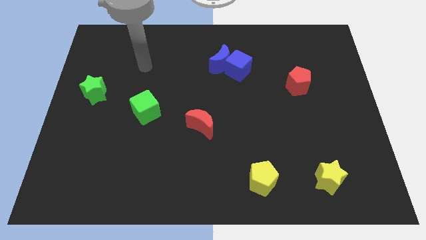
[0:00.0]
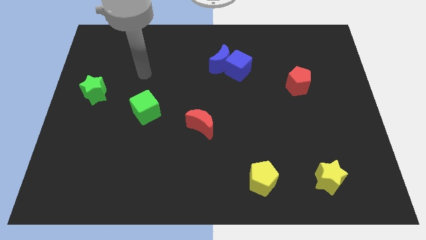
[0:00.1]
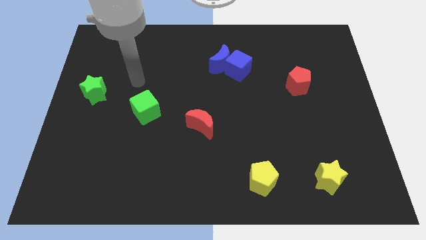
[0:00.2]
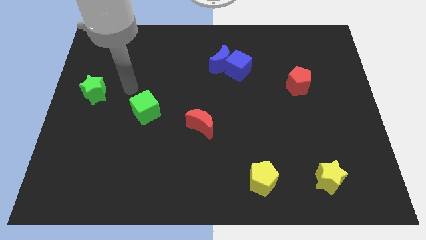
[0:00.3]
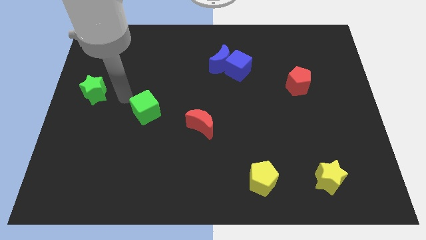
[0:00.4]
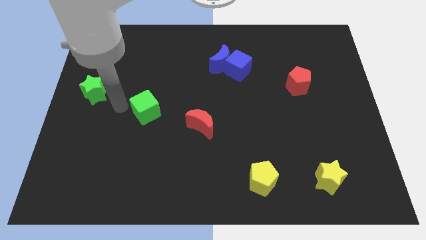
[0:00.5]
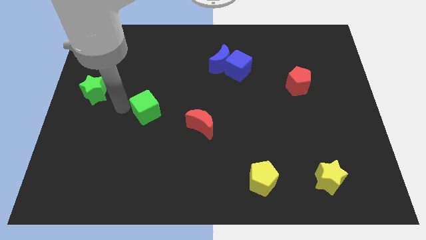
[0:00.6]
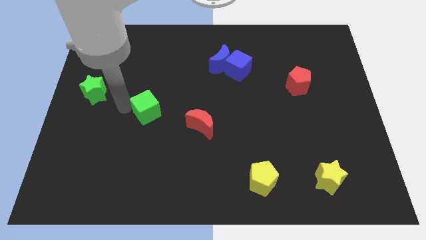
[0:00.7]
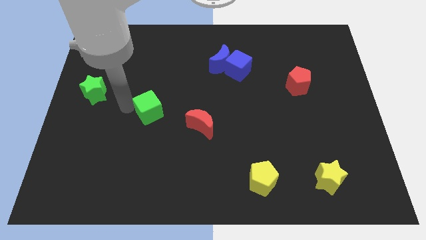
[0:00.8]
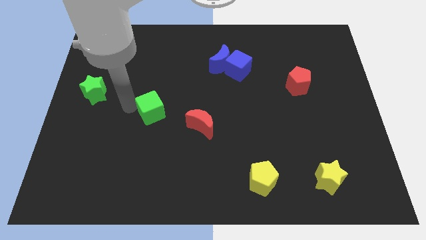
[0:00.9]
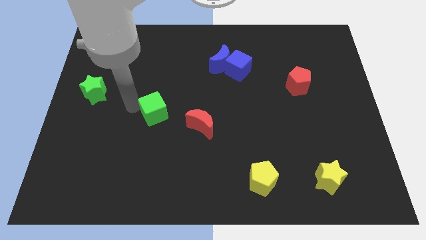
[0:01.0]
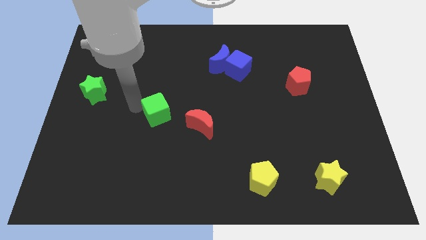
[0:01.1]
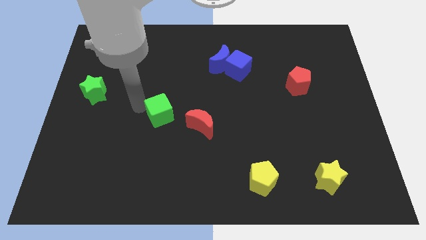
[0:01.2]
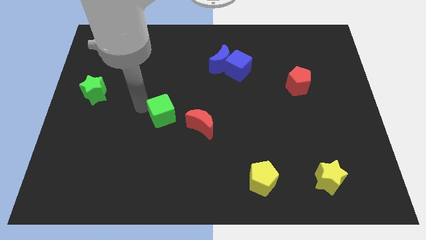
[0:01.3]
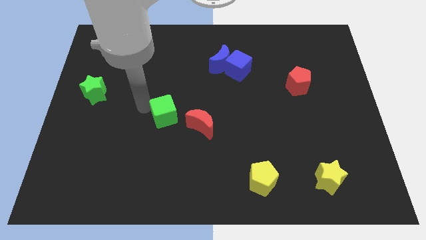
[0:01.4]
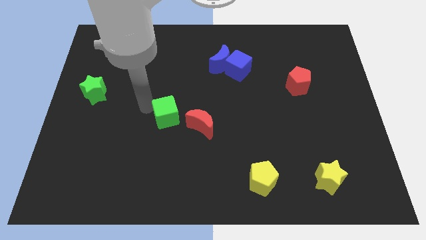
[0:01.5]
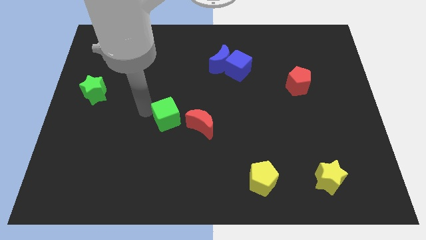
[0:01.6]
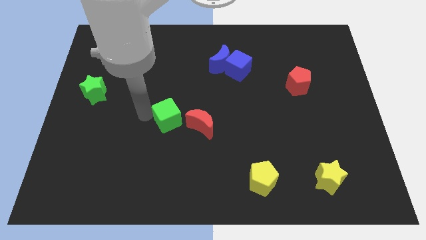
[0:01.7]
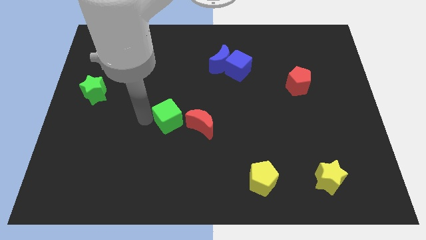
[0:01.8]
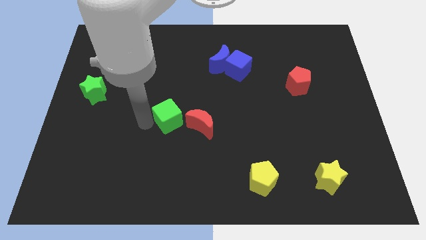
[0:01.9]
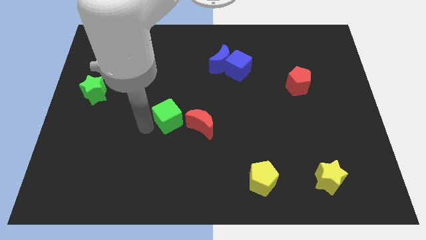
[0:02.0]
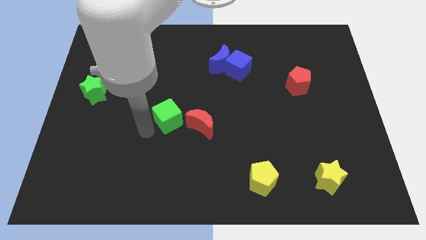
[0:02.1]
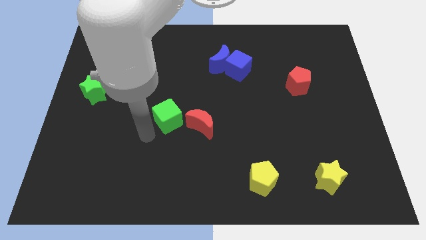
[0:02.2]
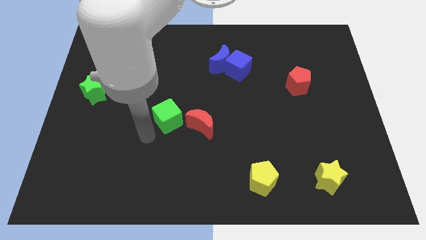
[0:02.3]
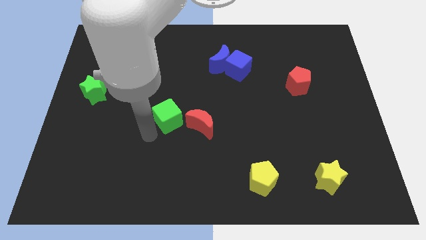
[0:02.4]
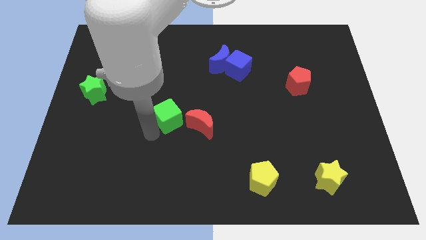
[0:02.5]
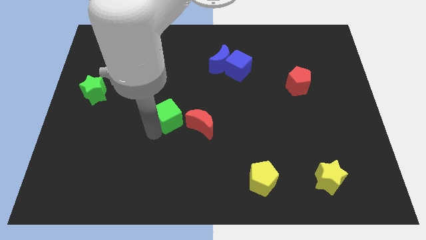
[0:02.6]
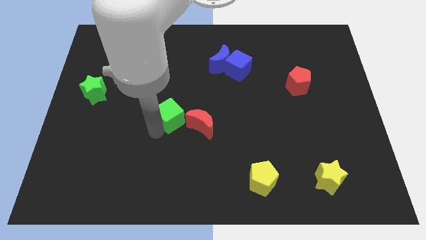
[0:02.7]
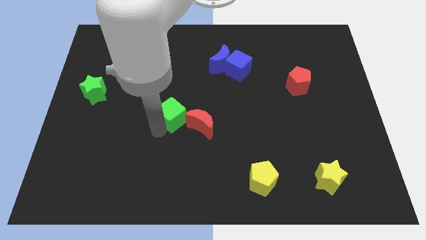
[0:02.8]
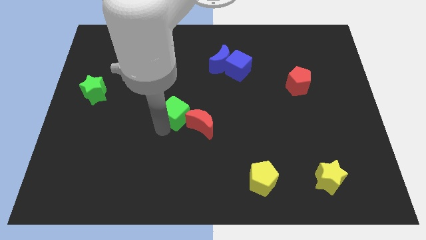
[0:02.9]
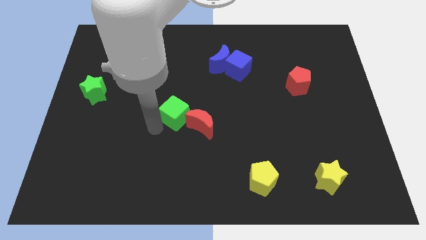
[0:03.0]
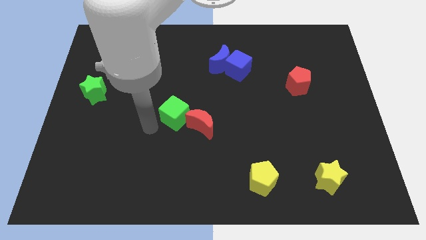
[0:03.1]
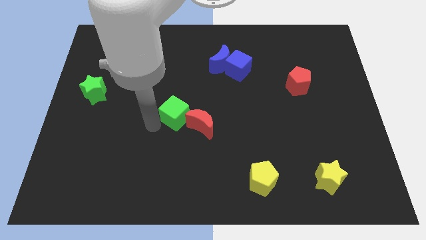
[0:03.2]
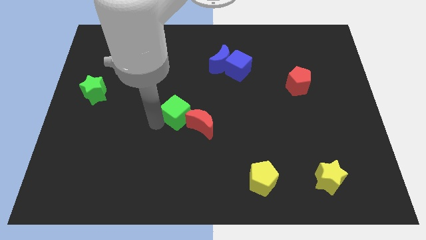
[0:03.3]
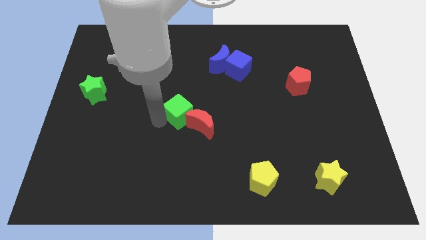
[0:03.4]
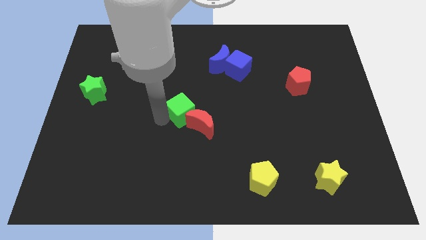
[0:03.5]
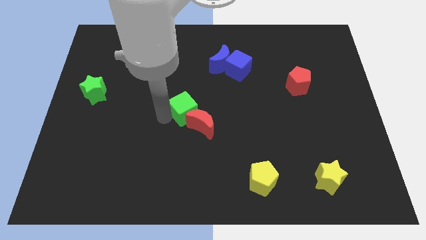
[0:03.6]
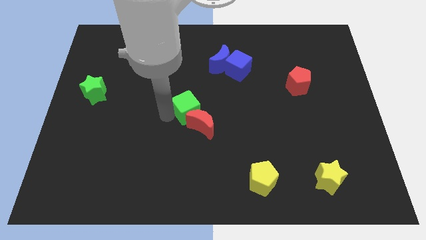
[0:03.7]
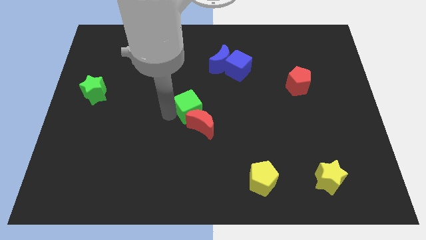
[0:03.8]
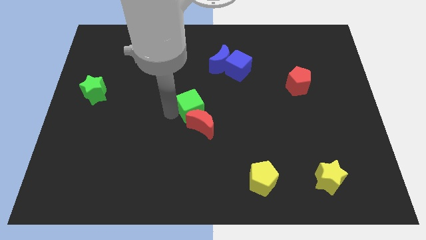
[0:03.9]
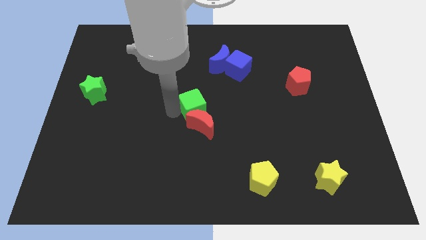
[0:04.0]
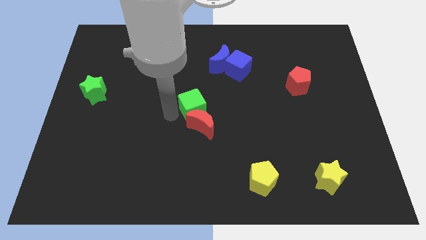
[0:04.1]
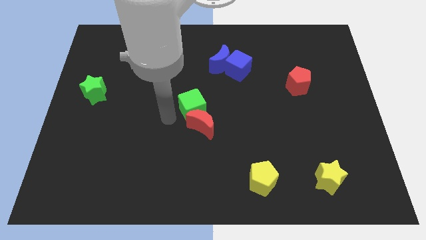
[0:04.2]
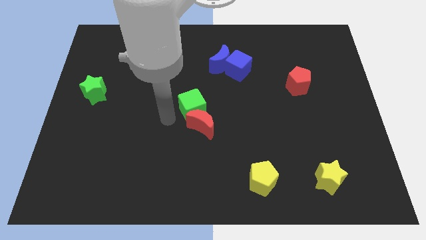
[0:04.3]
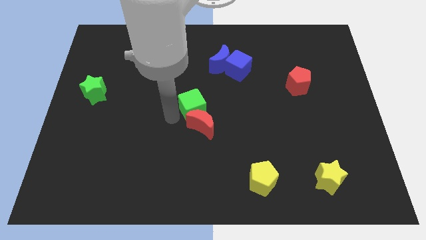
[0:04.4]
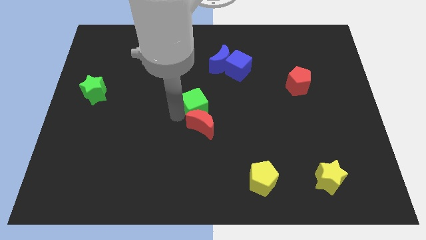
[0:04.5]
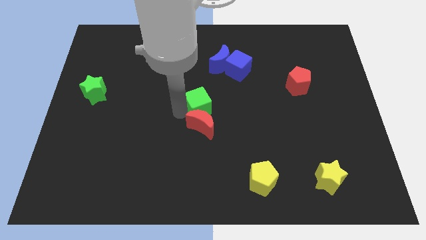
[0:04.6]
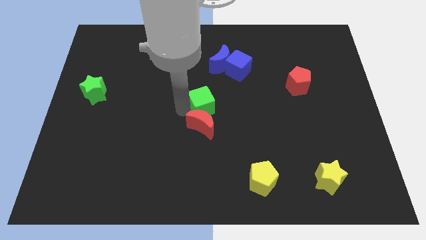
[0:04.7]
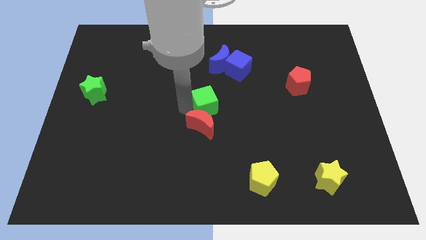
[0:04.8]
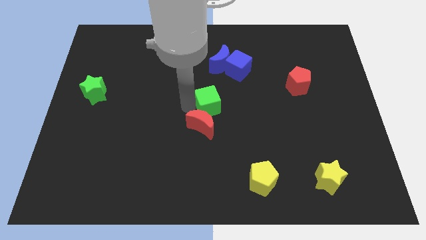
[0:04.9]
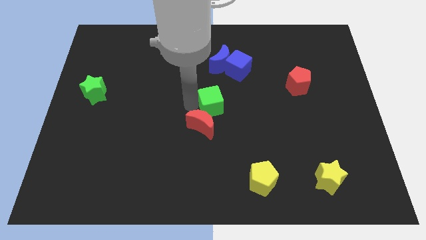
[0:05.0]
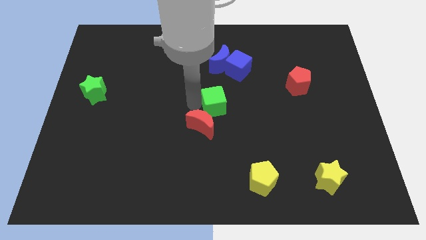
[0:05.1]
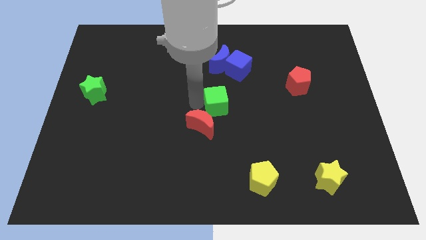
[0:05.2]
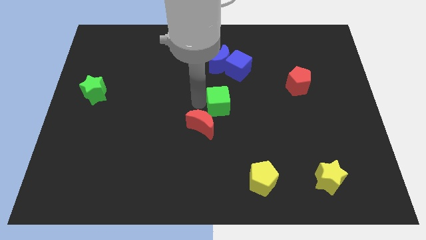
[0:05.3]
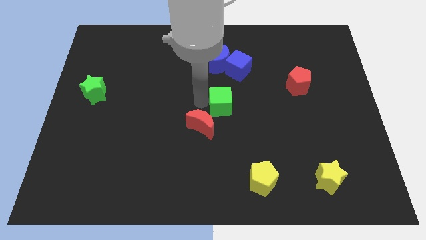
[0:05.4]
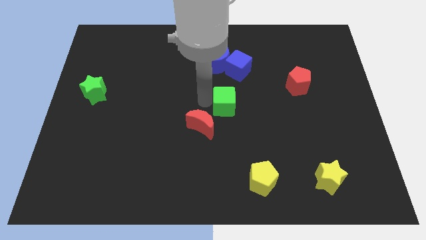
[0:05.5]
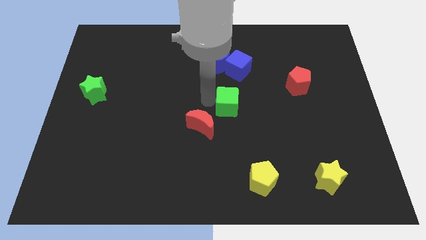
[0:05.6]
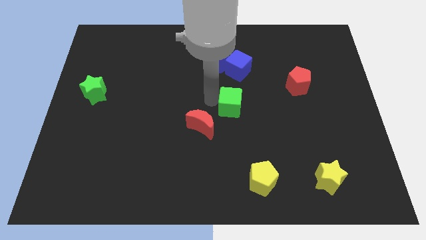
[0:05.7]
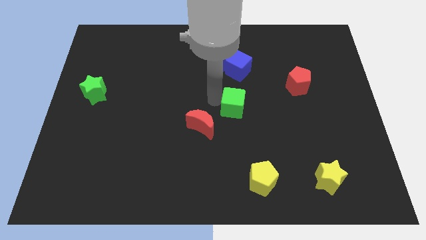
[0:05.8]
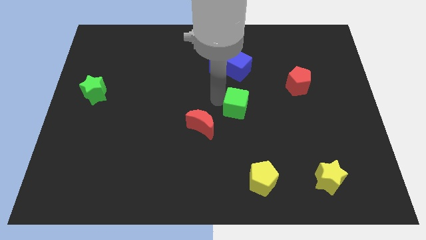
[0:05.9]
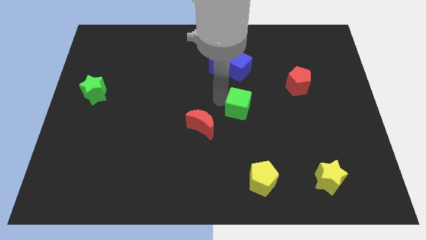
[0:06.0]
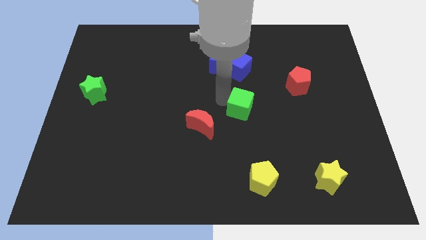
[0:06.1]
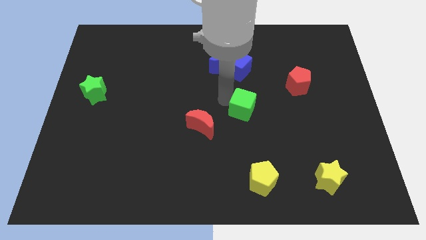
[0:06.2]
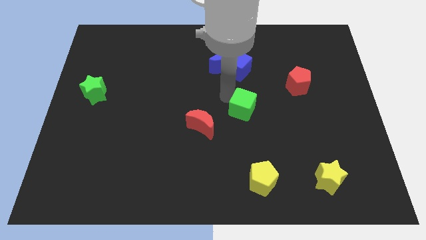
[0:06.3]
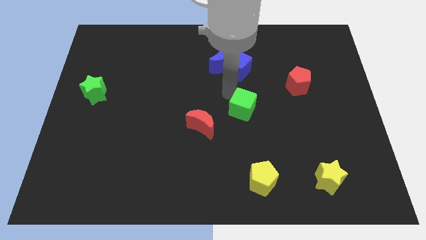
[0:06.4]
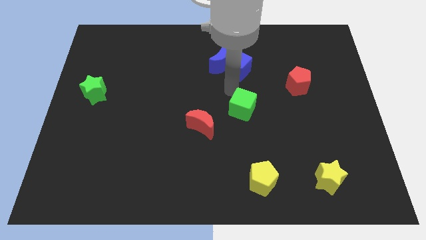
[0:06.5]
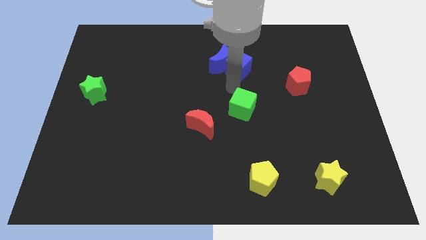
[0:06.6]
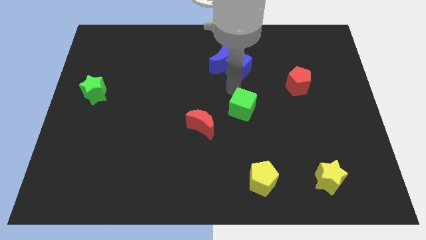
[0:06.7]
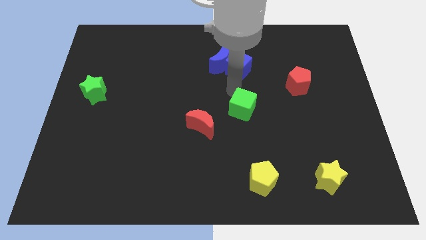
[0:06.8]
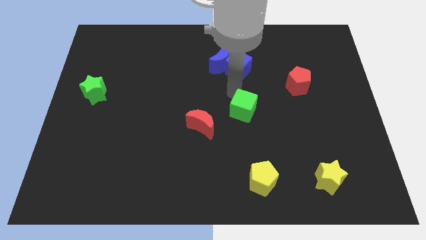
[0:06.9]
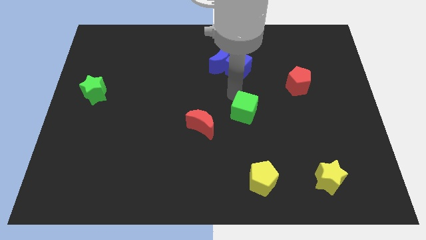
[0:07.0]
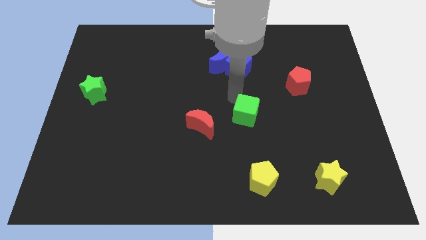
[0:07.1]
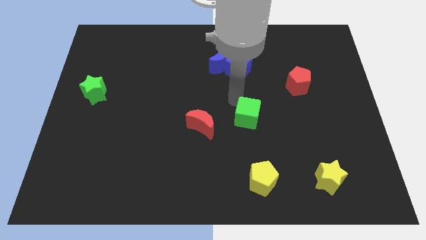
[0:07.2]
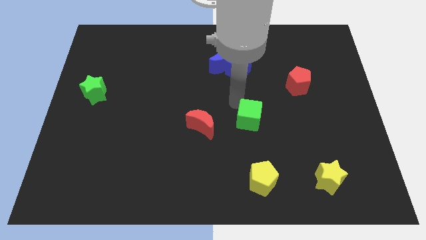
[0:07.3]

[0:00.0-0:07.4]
put the green cube to the top of the yellow pentagon
